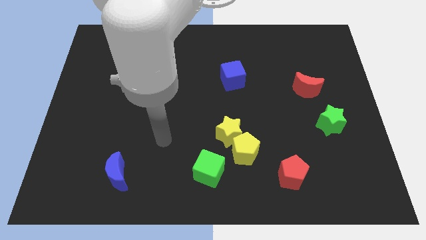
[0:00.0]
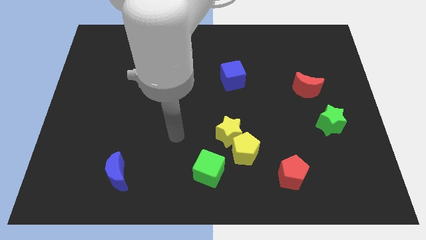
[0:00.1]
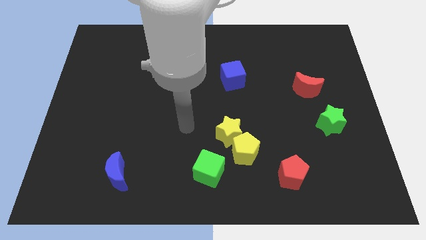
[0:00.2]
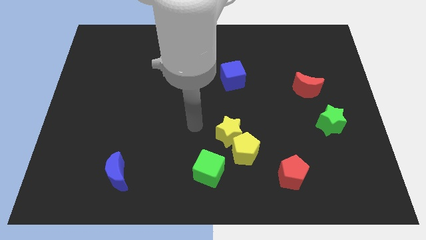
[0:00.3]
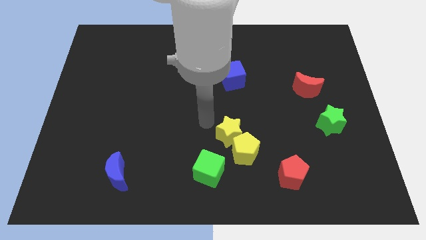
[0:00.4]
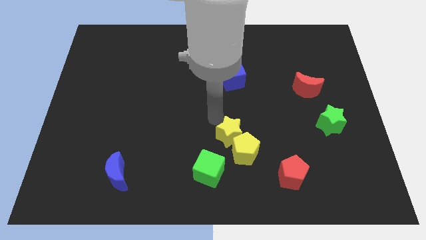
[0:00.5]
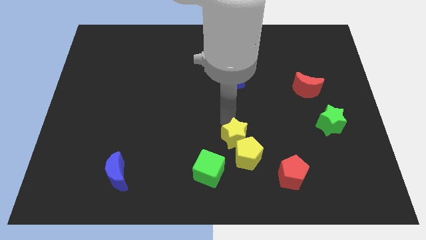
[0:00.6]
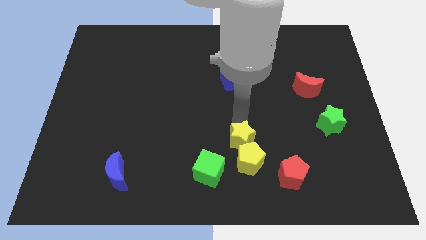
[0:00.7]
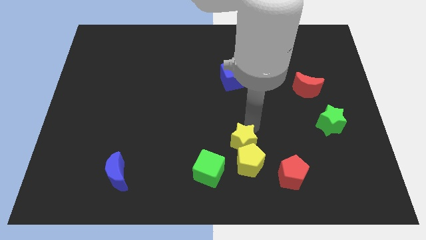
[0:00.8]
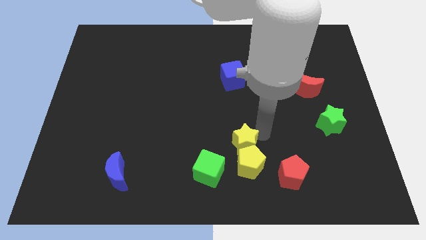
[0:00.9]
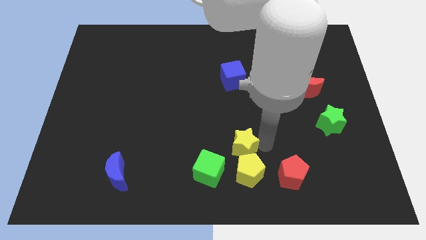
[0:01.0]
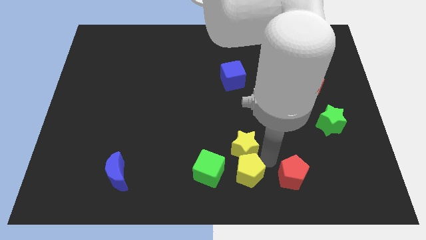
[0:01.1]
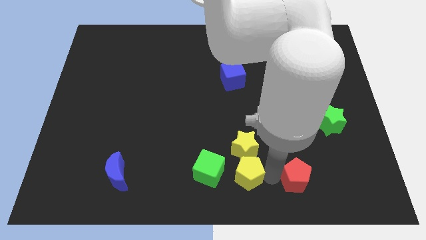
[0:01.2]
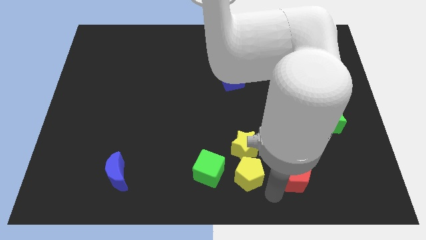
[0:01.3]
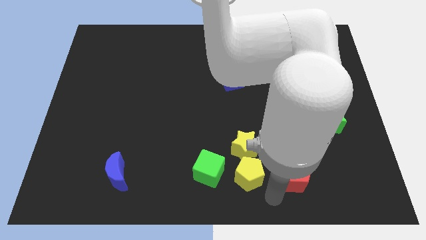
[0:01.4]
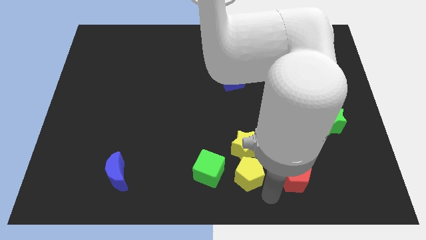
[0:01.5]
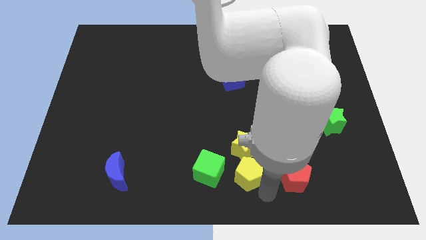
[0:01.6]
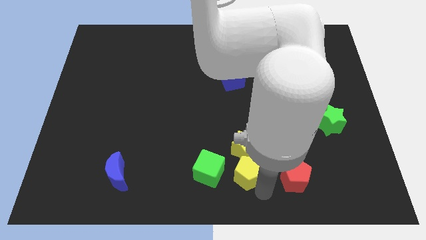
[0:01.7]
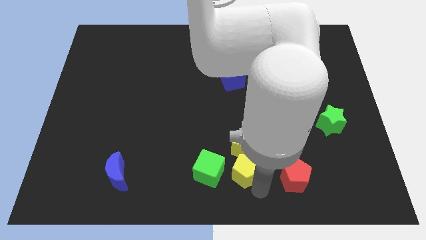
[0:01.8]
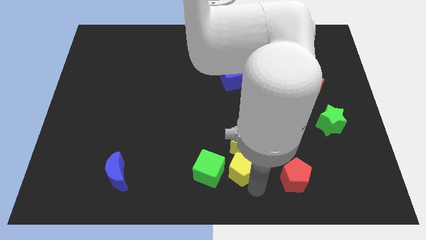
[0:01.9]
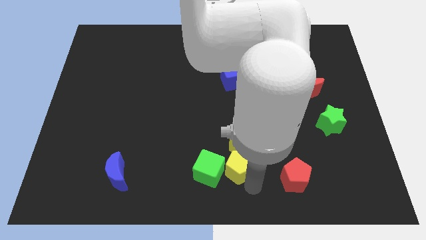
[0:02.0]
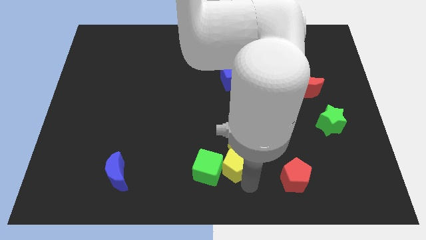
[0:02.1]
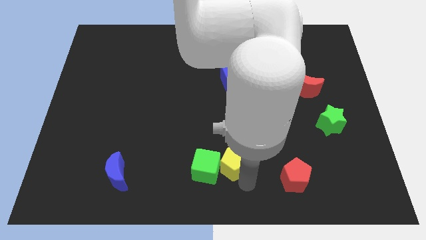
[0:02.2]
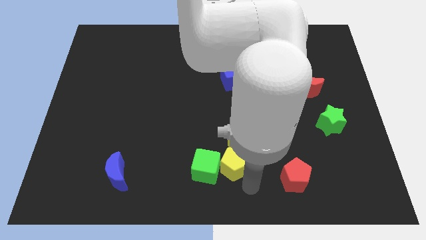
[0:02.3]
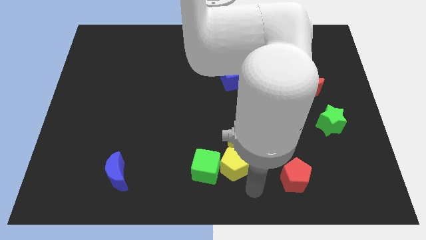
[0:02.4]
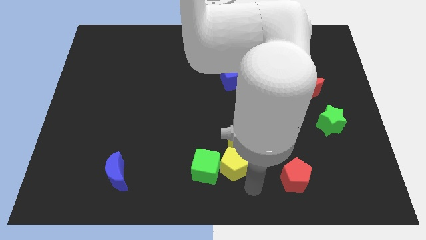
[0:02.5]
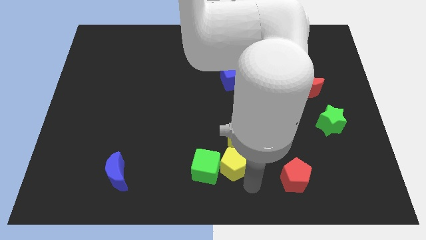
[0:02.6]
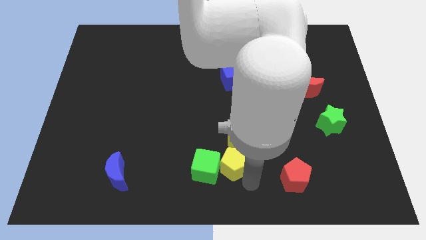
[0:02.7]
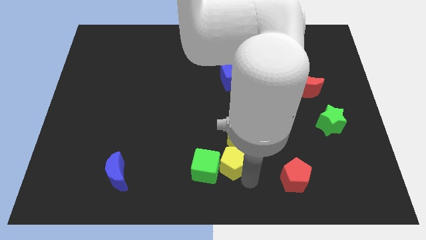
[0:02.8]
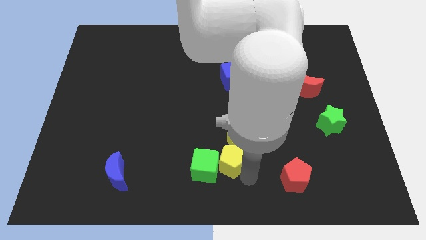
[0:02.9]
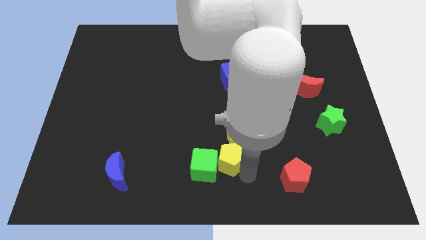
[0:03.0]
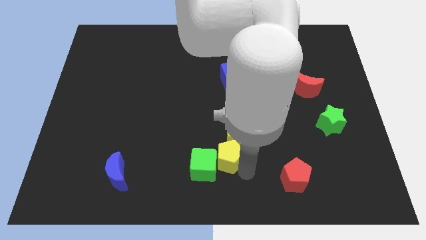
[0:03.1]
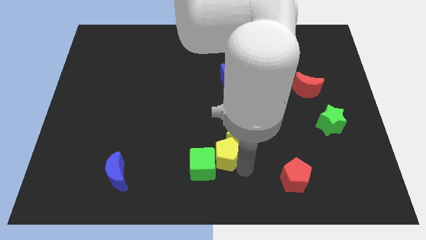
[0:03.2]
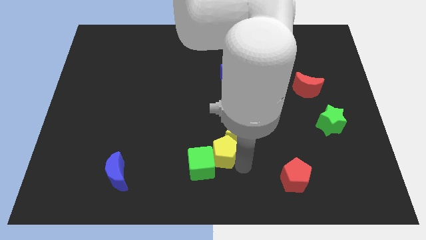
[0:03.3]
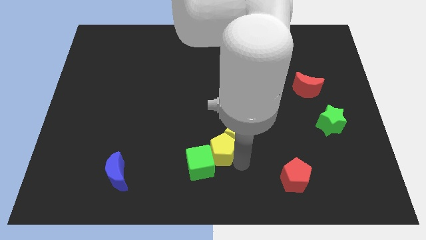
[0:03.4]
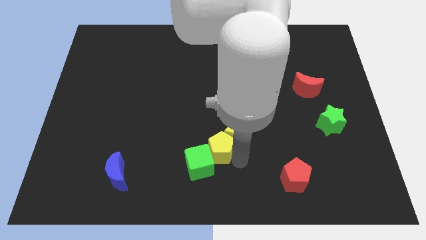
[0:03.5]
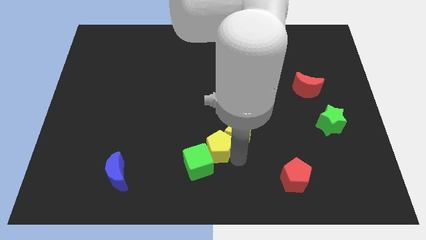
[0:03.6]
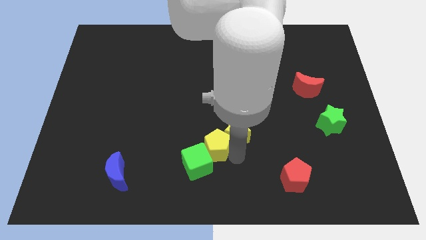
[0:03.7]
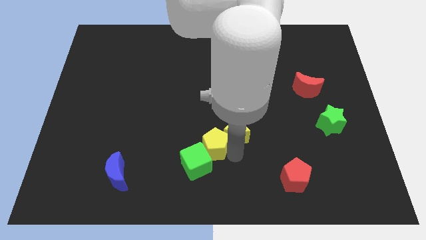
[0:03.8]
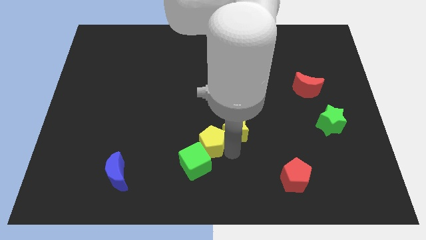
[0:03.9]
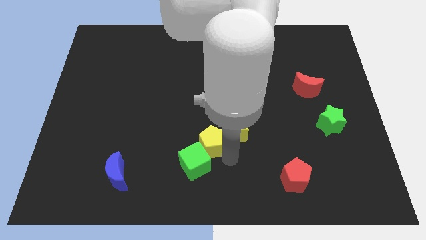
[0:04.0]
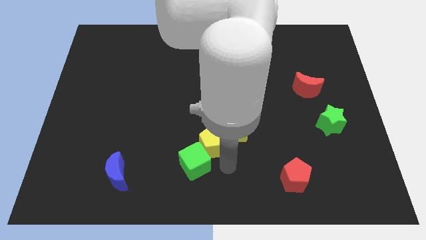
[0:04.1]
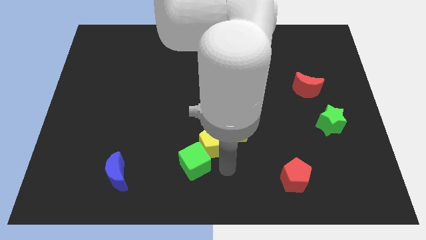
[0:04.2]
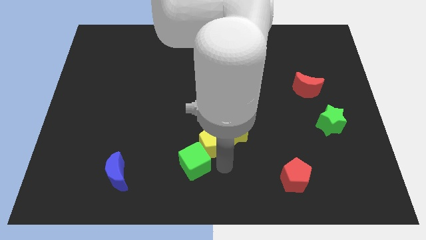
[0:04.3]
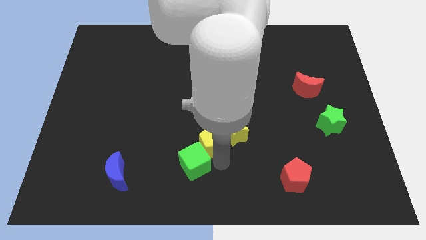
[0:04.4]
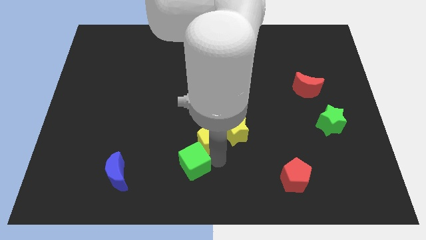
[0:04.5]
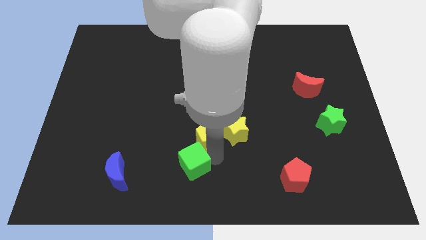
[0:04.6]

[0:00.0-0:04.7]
slide the yellow pentagon upwards and then left a little

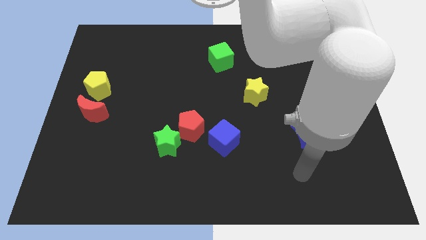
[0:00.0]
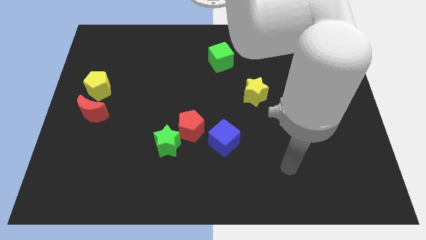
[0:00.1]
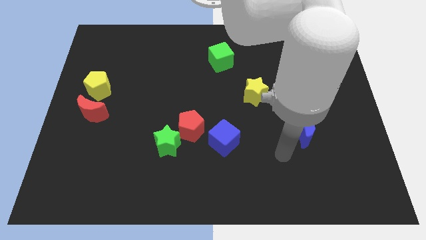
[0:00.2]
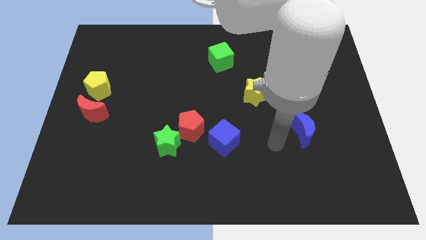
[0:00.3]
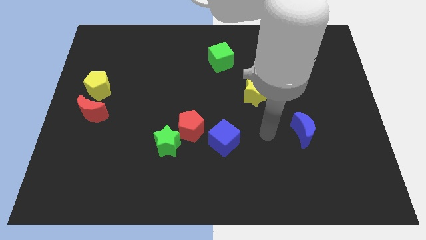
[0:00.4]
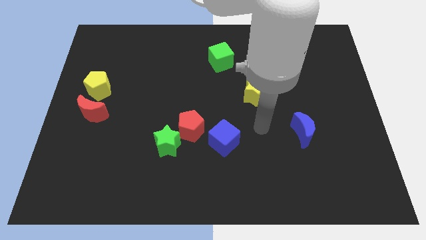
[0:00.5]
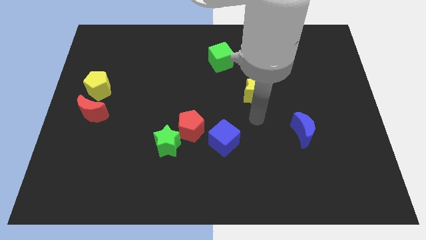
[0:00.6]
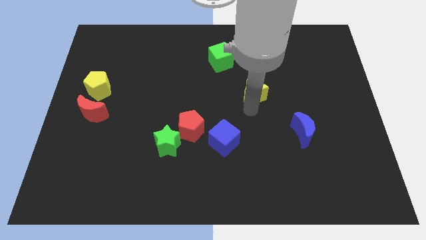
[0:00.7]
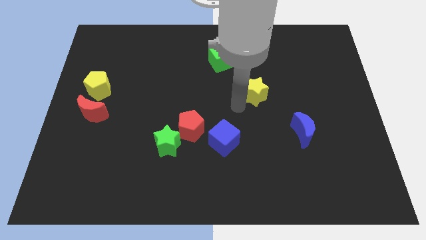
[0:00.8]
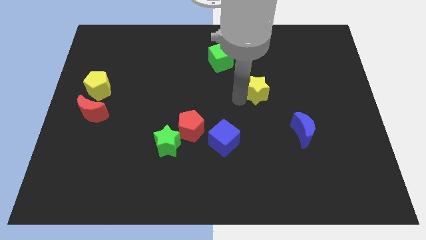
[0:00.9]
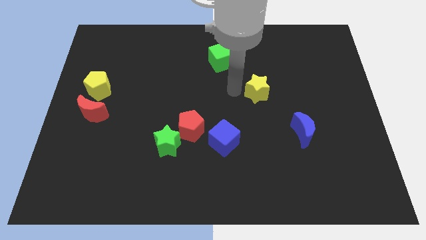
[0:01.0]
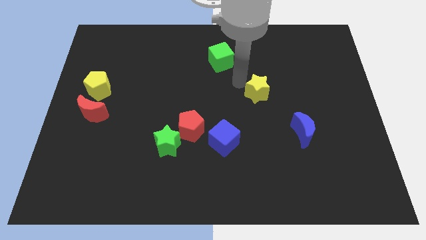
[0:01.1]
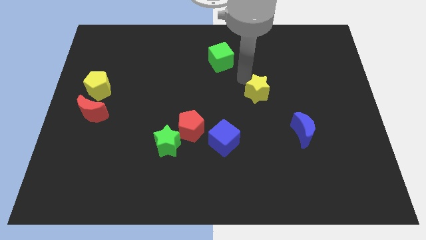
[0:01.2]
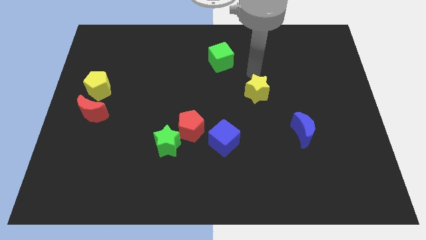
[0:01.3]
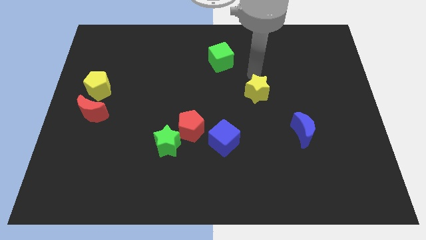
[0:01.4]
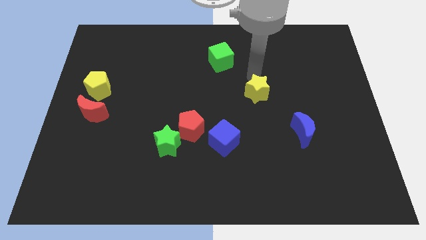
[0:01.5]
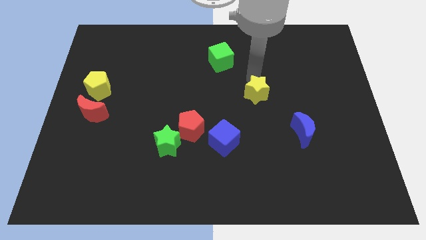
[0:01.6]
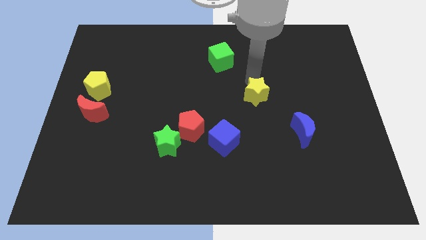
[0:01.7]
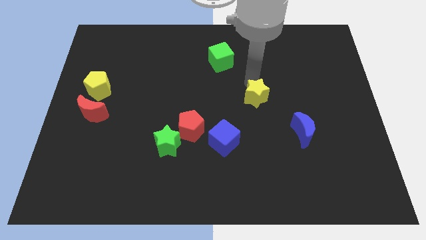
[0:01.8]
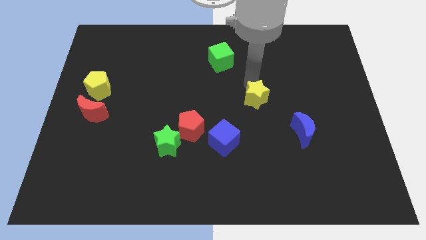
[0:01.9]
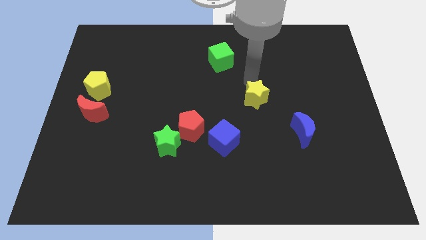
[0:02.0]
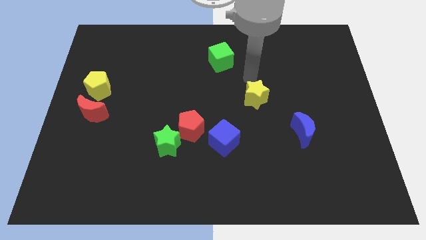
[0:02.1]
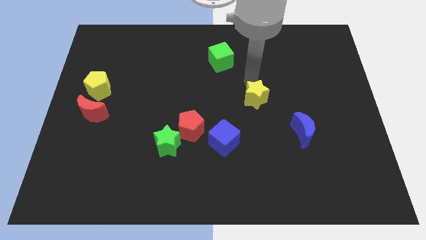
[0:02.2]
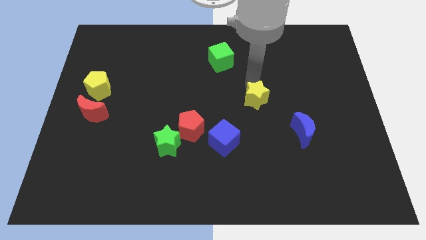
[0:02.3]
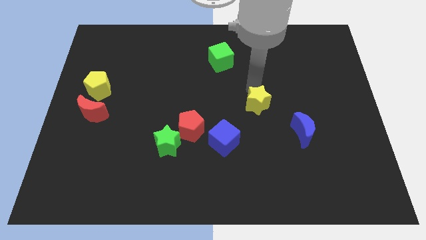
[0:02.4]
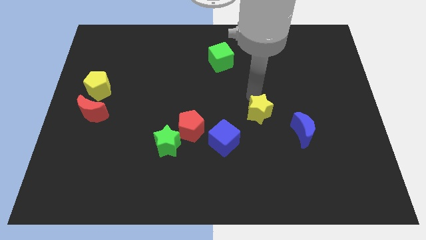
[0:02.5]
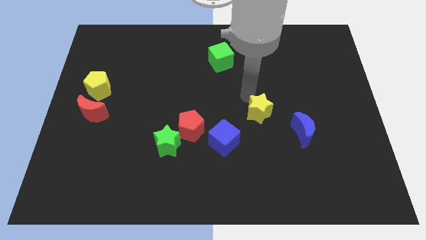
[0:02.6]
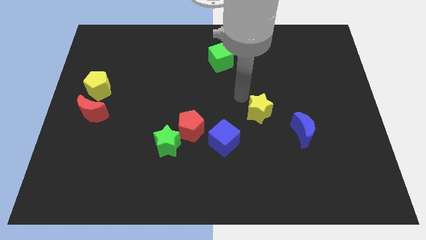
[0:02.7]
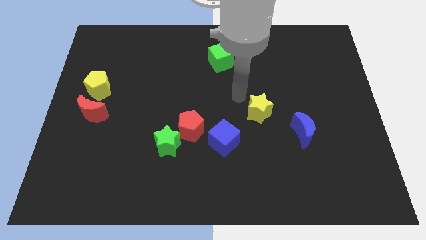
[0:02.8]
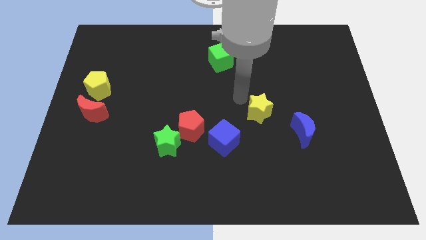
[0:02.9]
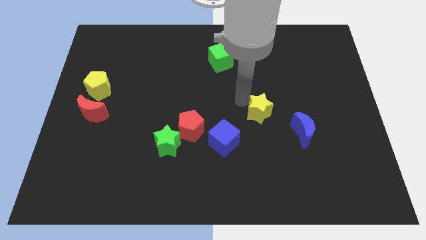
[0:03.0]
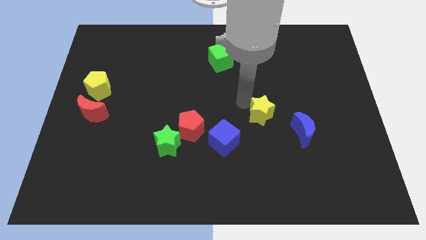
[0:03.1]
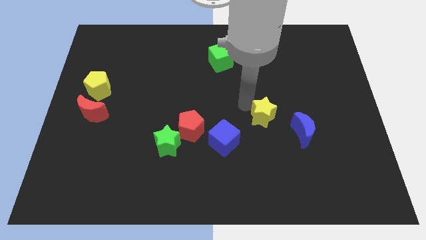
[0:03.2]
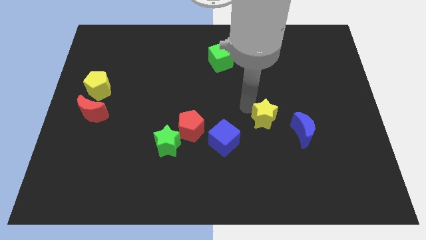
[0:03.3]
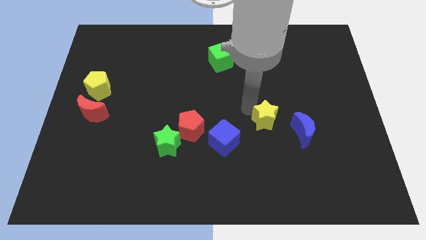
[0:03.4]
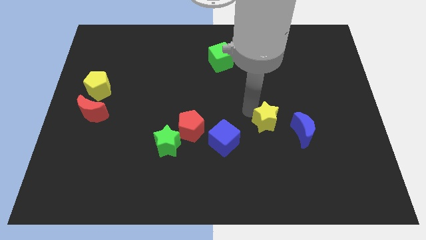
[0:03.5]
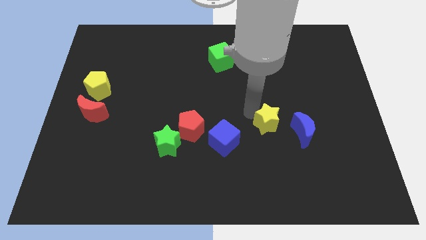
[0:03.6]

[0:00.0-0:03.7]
slightly slide the yellow star downwards and right
